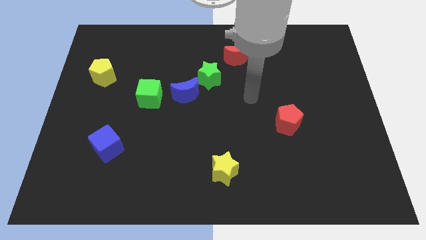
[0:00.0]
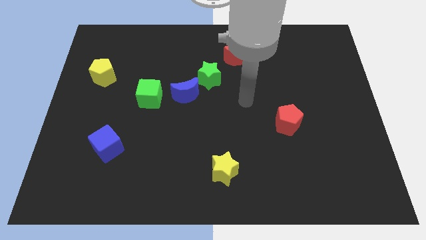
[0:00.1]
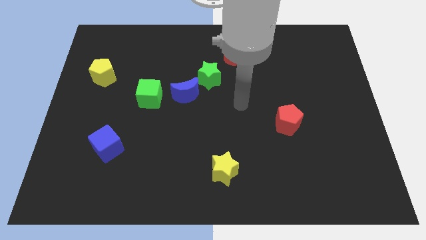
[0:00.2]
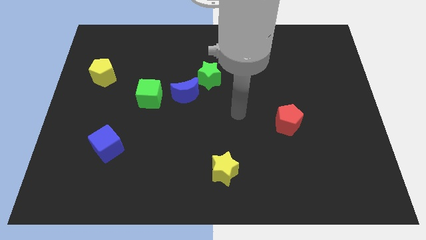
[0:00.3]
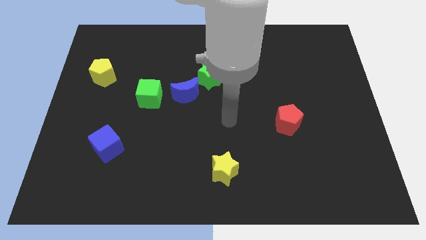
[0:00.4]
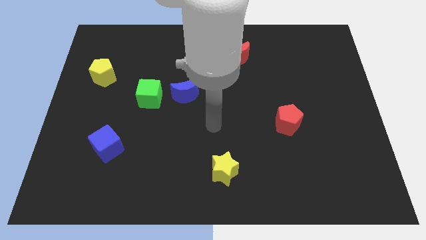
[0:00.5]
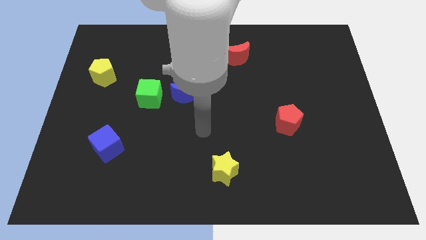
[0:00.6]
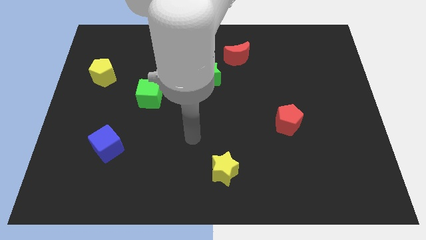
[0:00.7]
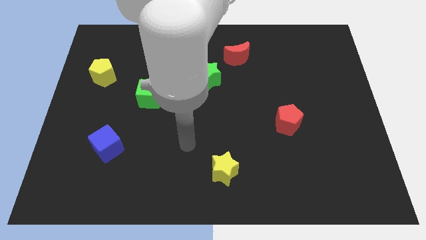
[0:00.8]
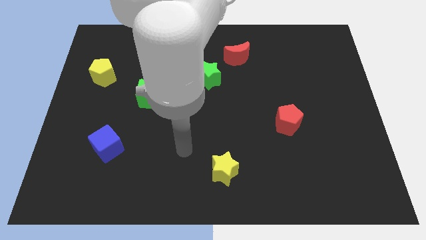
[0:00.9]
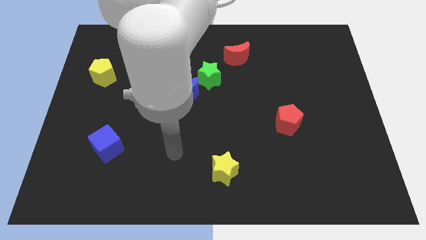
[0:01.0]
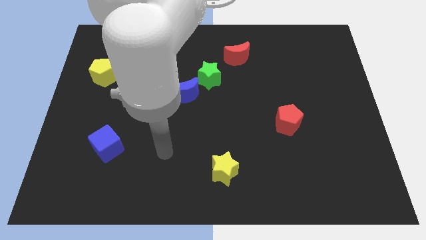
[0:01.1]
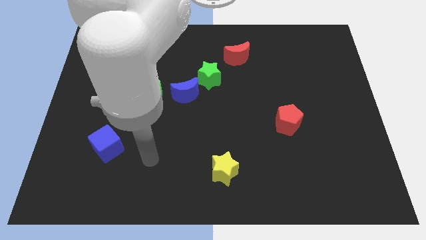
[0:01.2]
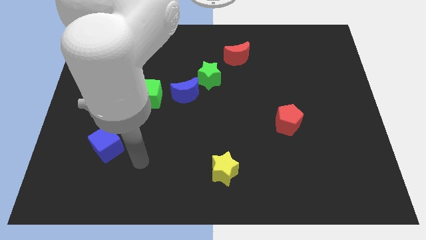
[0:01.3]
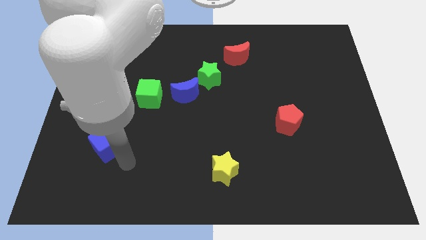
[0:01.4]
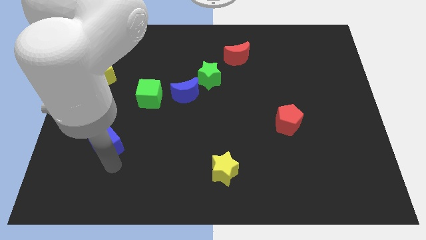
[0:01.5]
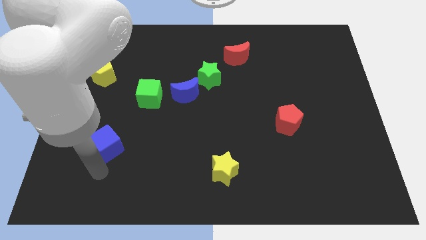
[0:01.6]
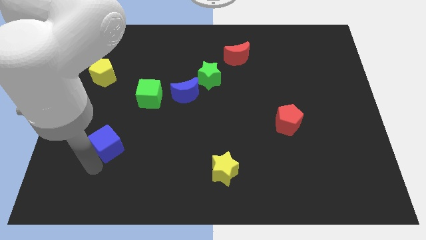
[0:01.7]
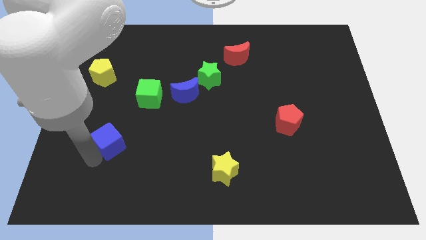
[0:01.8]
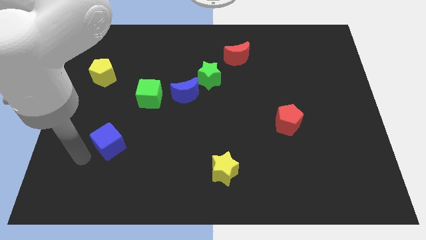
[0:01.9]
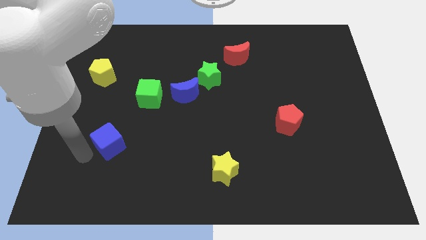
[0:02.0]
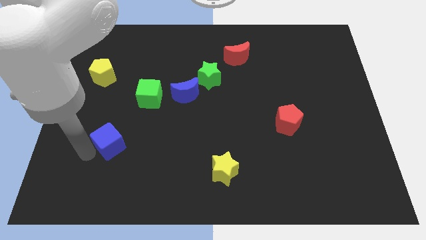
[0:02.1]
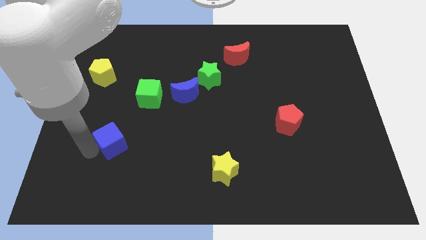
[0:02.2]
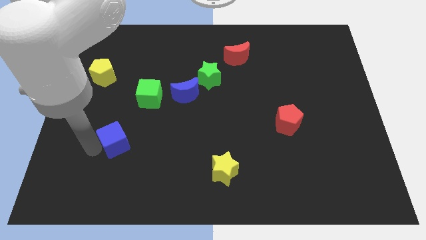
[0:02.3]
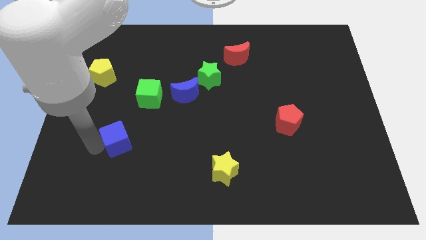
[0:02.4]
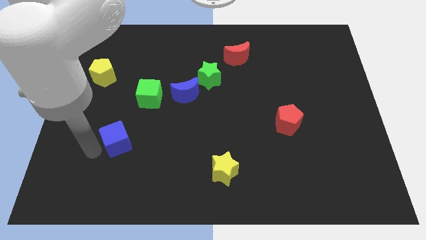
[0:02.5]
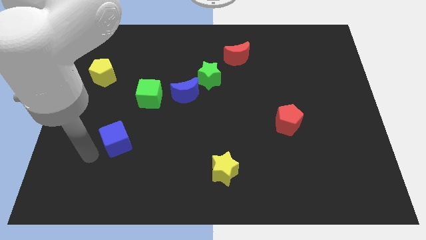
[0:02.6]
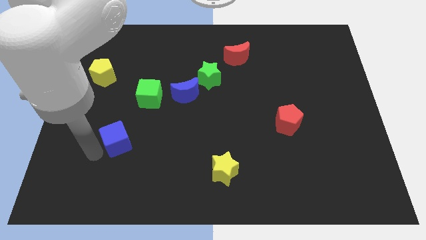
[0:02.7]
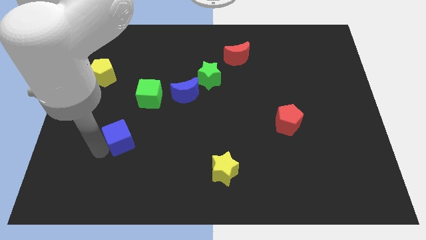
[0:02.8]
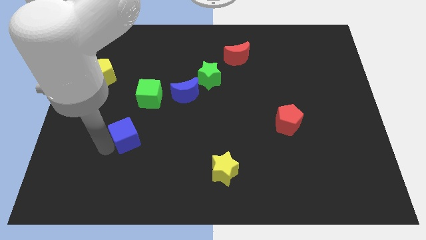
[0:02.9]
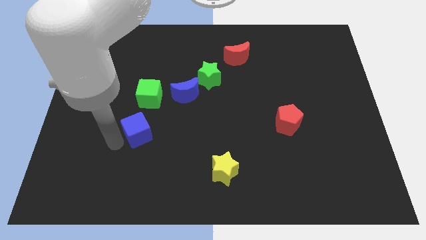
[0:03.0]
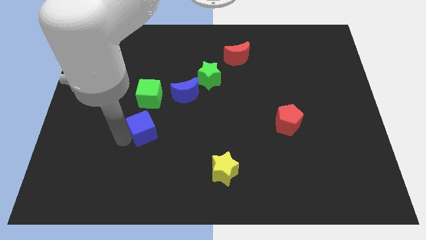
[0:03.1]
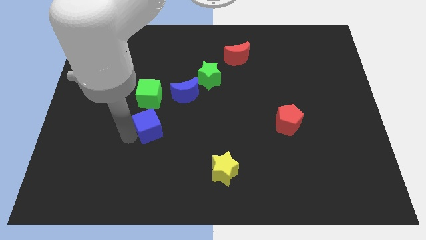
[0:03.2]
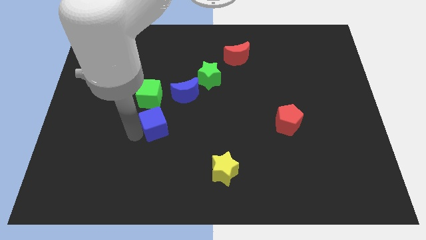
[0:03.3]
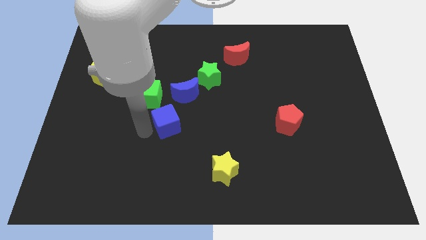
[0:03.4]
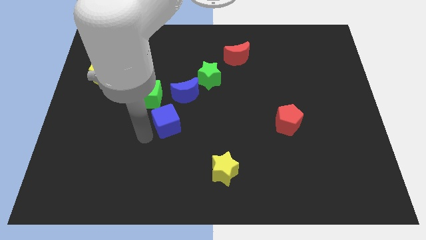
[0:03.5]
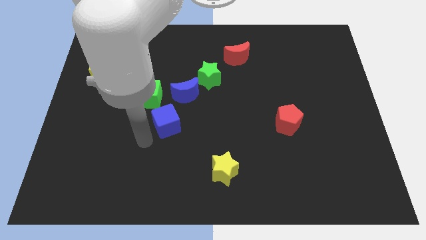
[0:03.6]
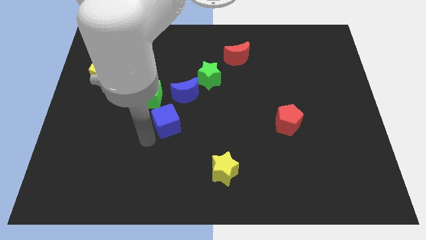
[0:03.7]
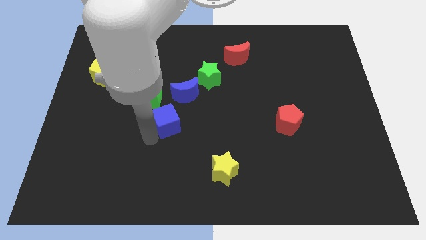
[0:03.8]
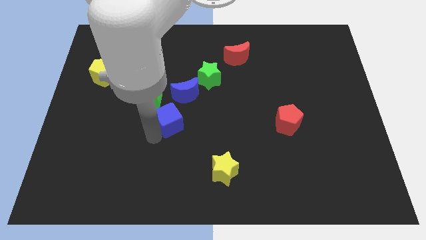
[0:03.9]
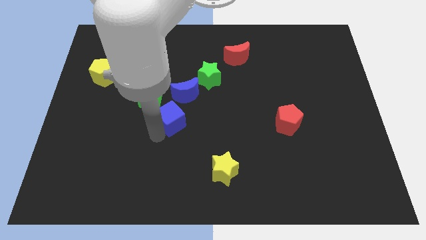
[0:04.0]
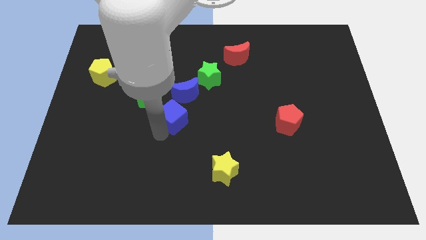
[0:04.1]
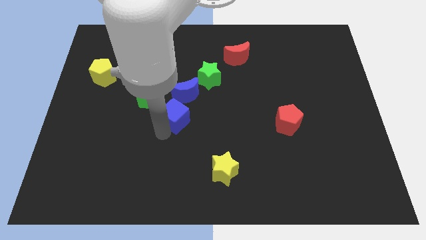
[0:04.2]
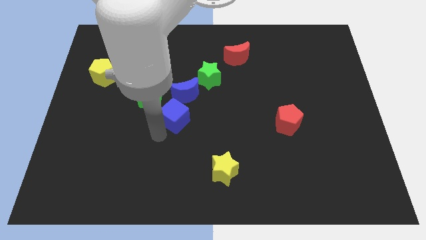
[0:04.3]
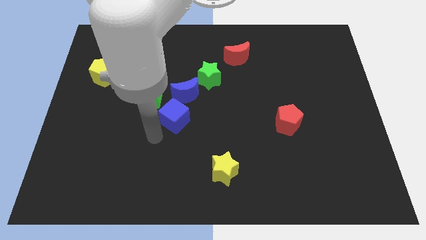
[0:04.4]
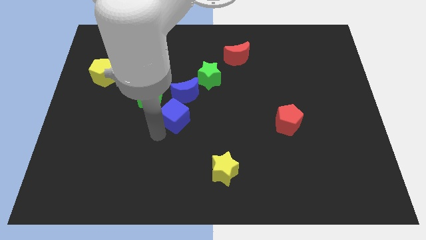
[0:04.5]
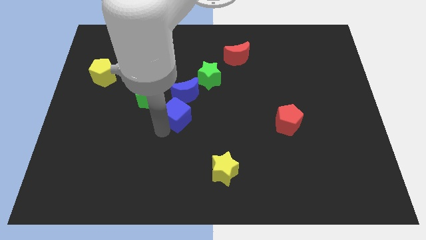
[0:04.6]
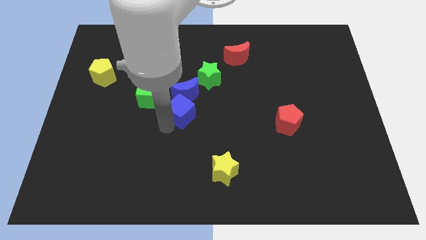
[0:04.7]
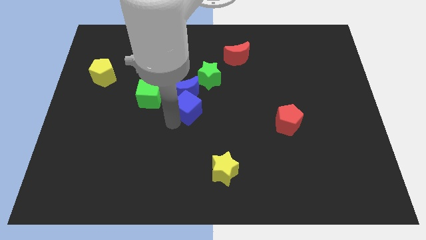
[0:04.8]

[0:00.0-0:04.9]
slide the blue cube just right of the green cube

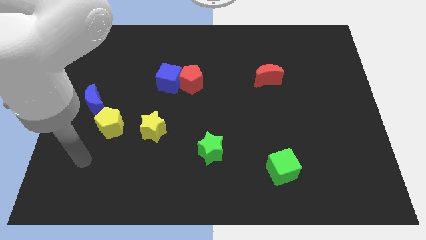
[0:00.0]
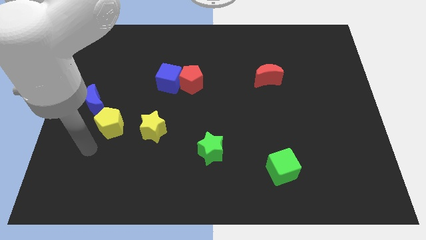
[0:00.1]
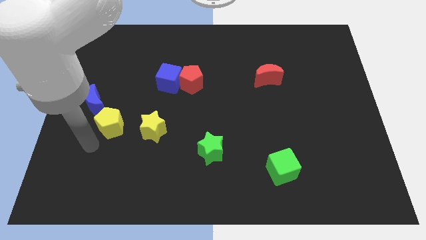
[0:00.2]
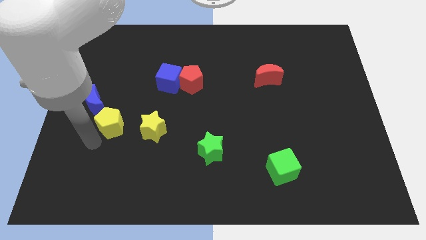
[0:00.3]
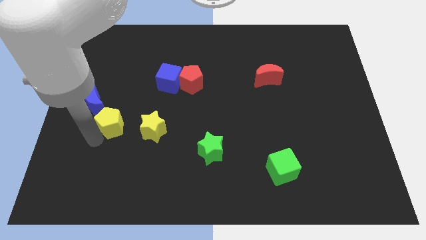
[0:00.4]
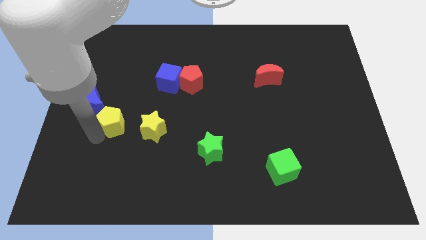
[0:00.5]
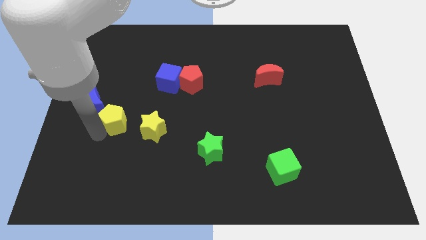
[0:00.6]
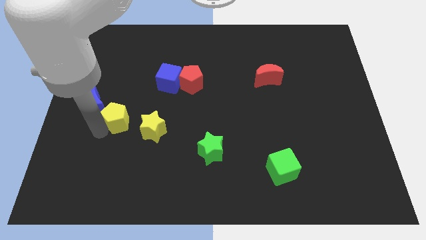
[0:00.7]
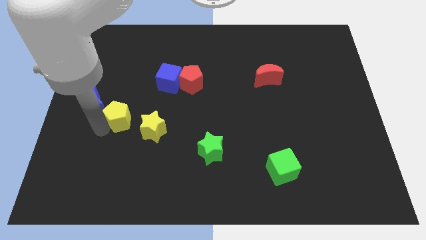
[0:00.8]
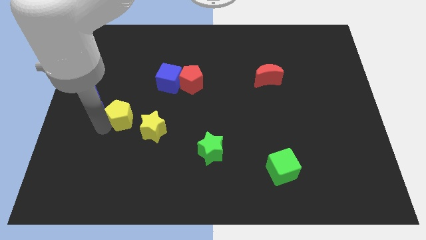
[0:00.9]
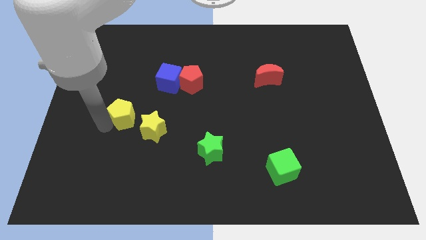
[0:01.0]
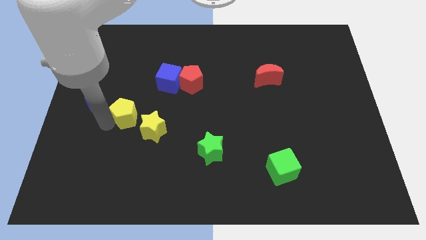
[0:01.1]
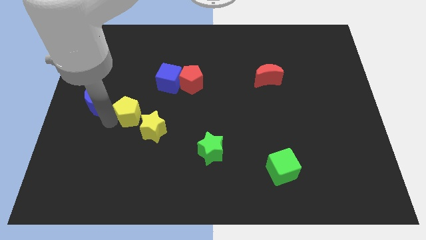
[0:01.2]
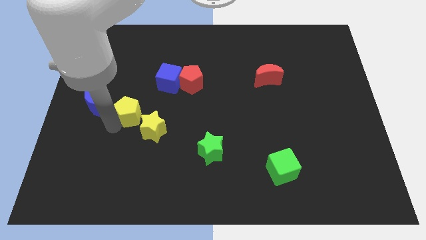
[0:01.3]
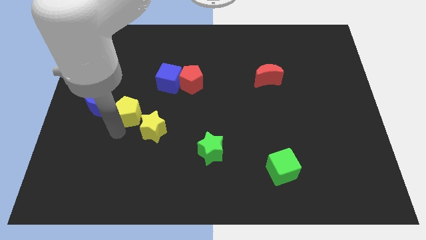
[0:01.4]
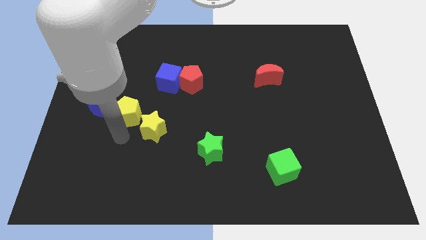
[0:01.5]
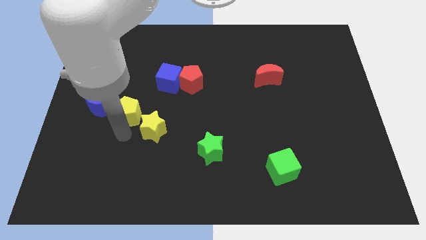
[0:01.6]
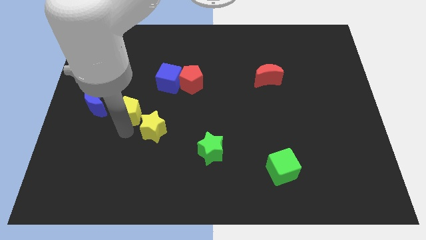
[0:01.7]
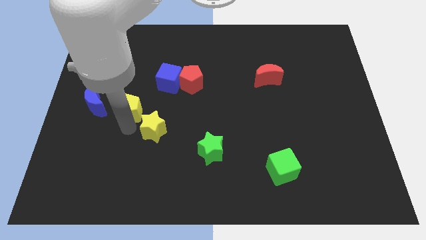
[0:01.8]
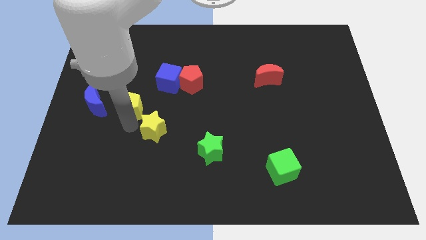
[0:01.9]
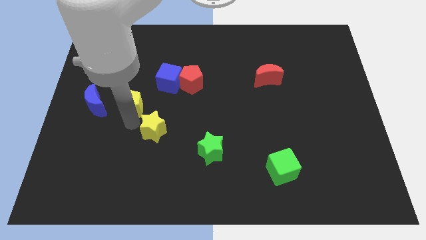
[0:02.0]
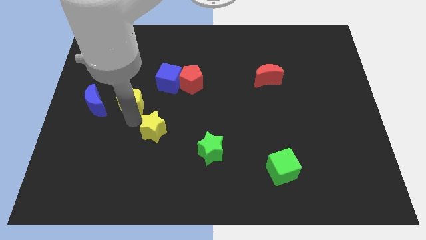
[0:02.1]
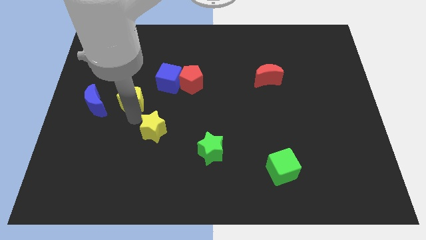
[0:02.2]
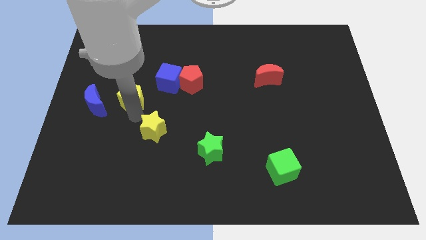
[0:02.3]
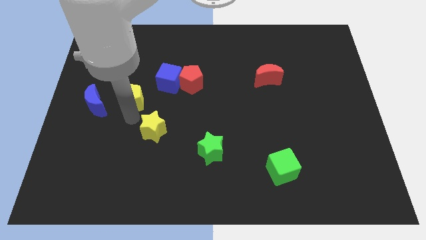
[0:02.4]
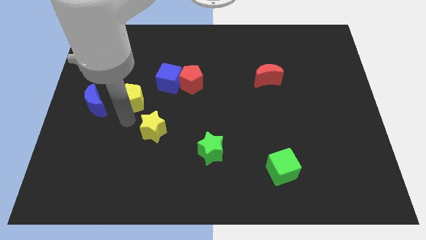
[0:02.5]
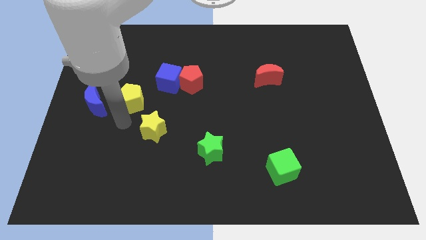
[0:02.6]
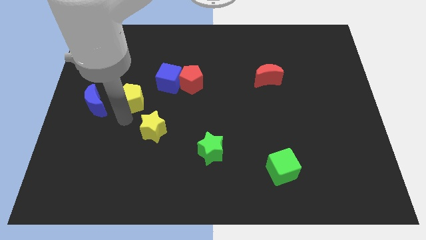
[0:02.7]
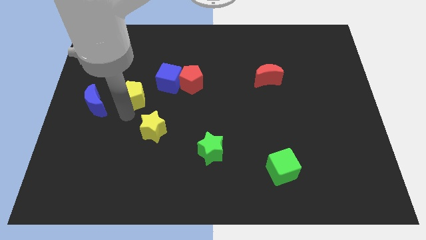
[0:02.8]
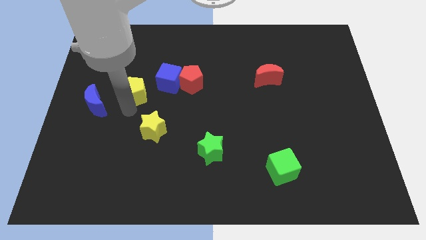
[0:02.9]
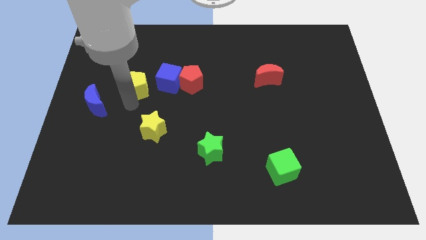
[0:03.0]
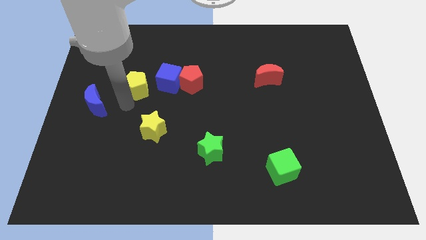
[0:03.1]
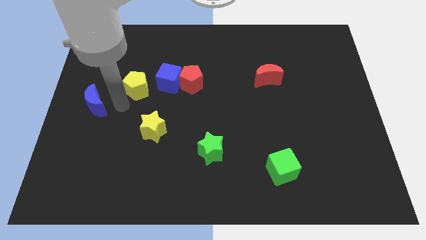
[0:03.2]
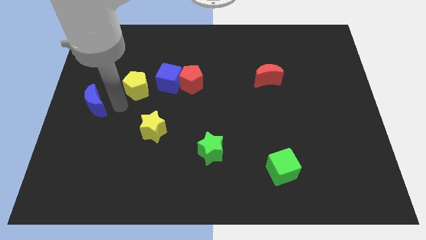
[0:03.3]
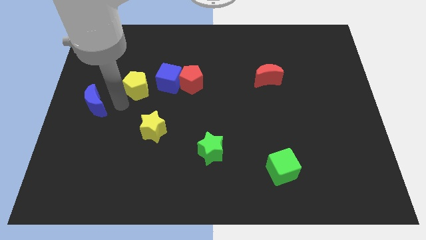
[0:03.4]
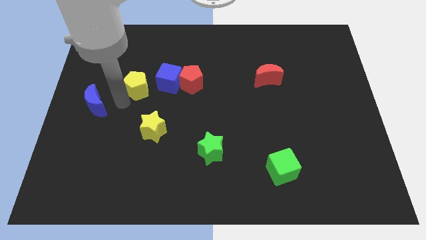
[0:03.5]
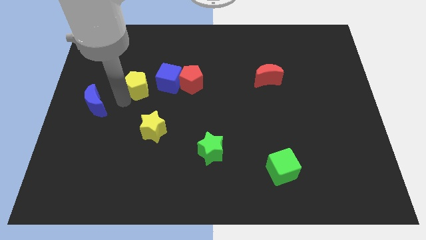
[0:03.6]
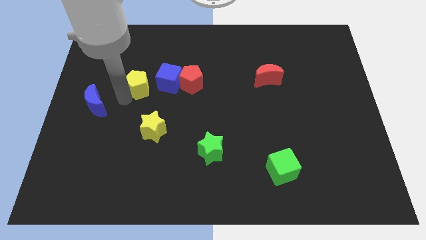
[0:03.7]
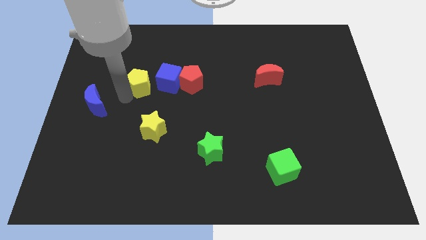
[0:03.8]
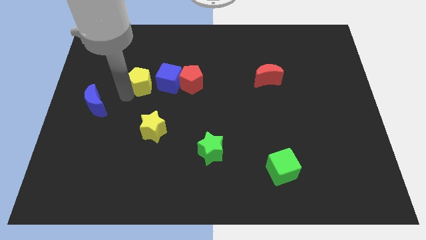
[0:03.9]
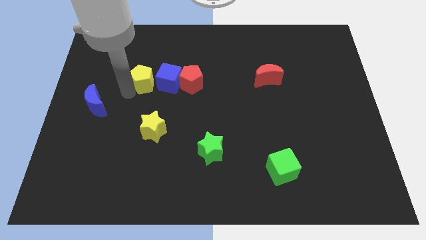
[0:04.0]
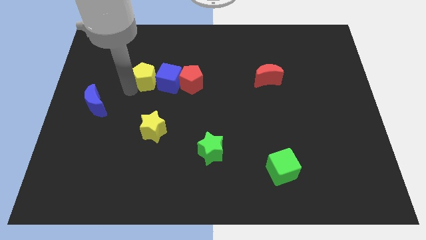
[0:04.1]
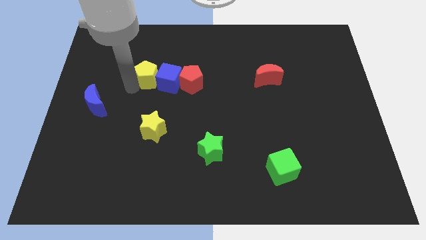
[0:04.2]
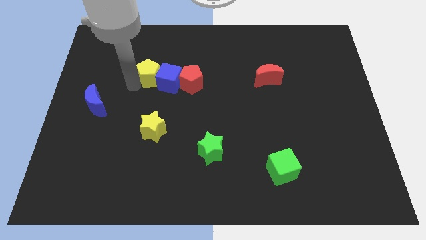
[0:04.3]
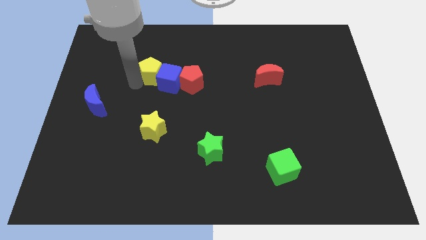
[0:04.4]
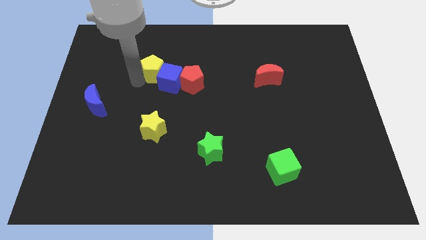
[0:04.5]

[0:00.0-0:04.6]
slide the yellow pentagon to the top left side of the red pentagon
